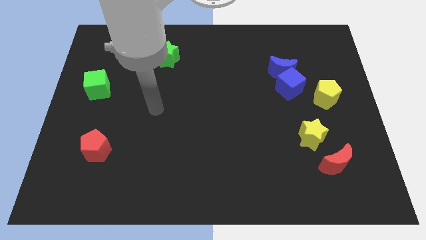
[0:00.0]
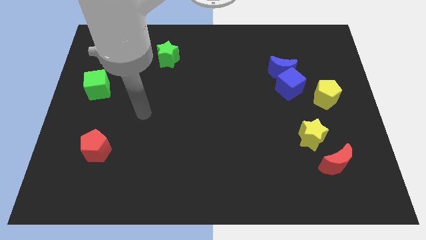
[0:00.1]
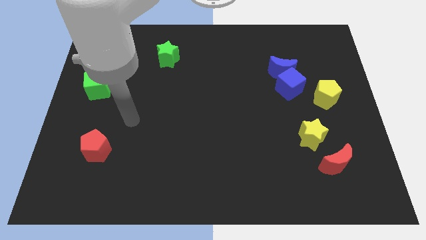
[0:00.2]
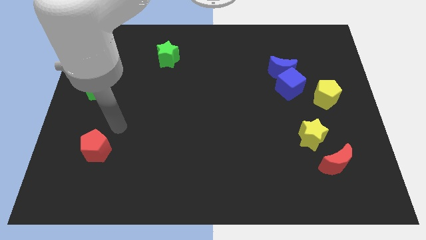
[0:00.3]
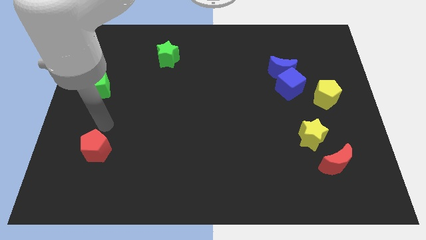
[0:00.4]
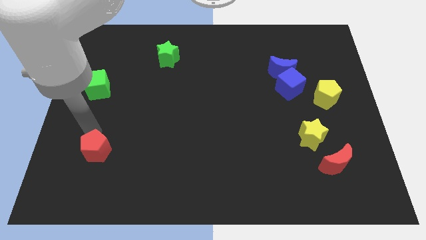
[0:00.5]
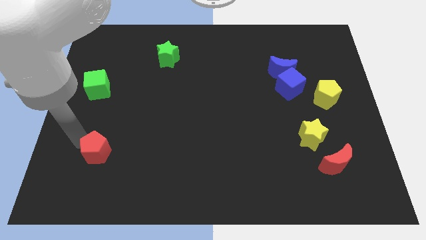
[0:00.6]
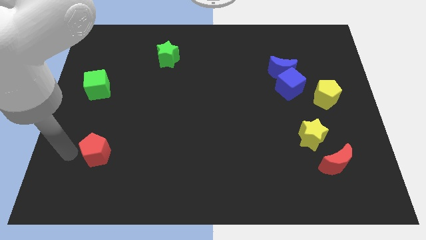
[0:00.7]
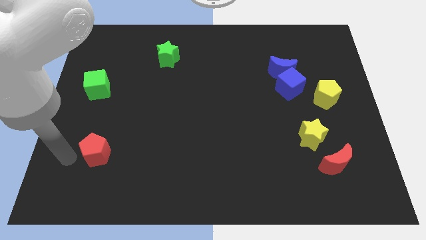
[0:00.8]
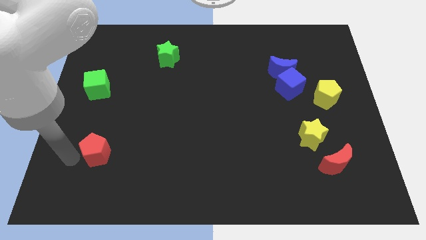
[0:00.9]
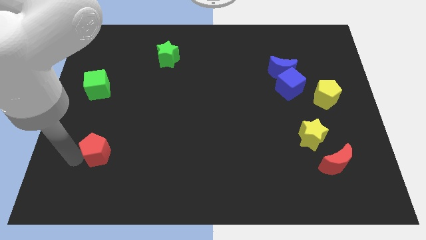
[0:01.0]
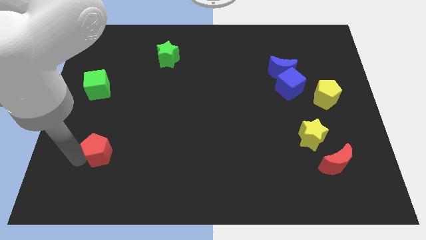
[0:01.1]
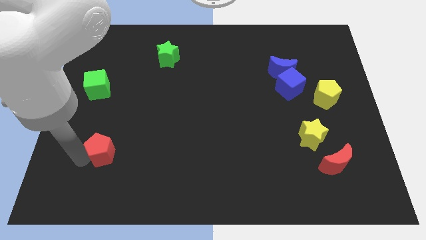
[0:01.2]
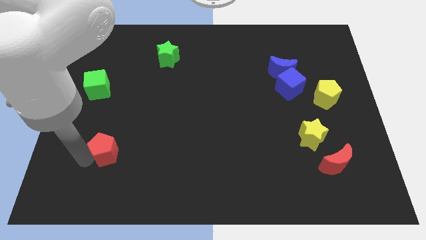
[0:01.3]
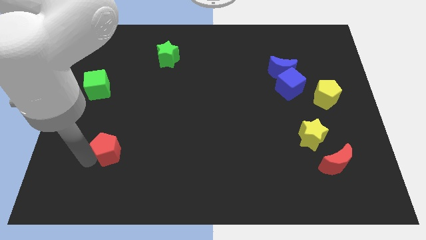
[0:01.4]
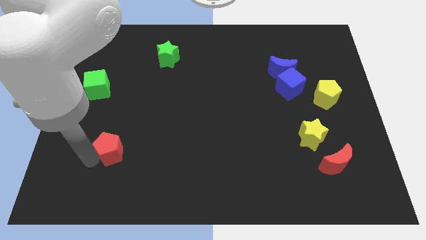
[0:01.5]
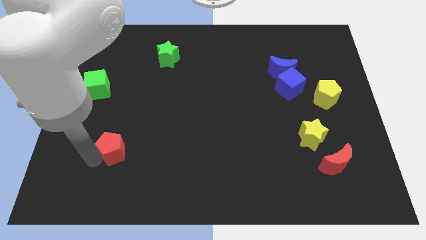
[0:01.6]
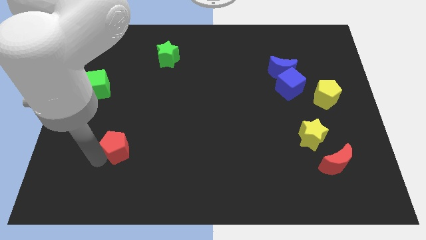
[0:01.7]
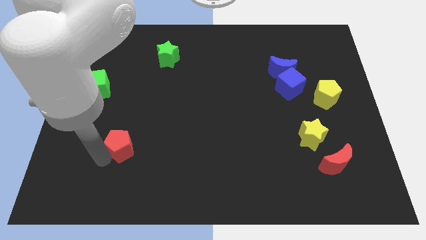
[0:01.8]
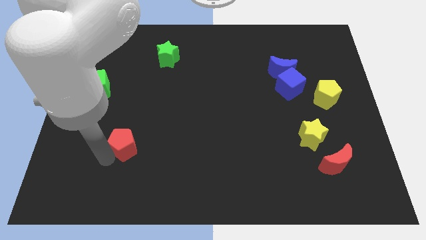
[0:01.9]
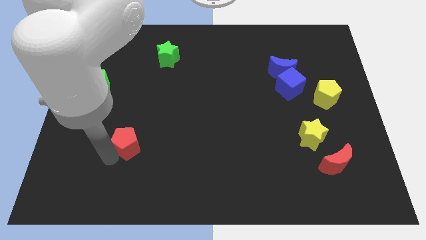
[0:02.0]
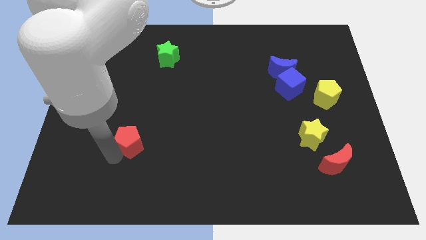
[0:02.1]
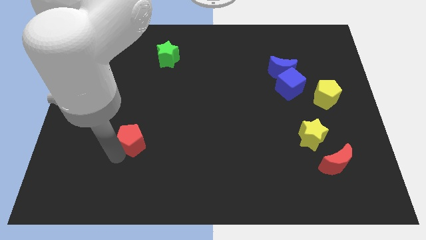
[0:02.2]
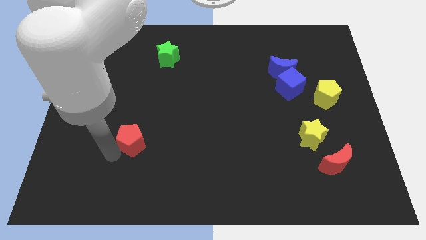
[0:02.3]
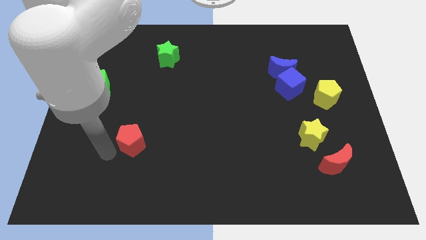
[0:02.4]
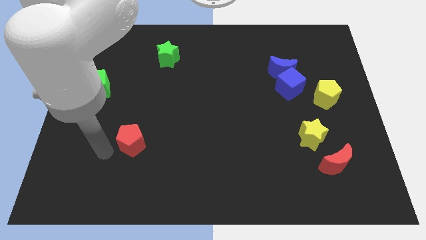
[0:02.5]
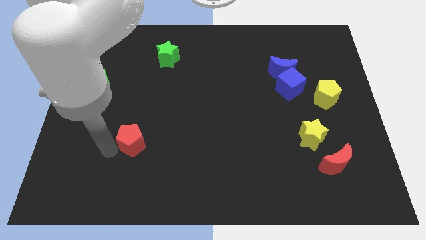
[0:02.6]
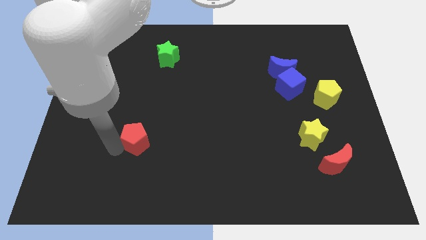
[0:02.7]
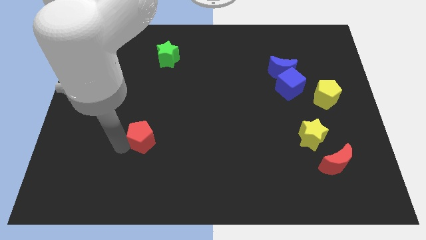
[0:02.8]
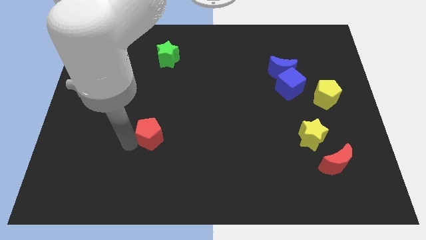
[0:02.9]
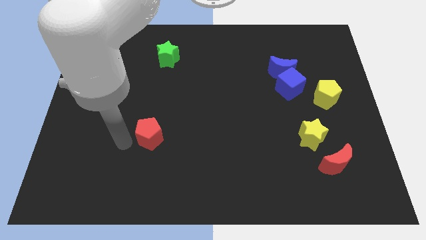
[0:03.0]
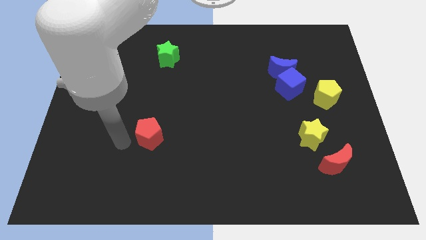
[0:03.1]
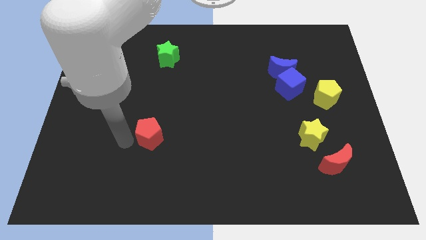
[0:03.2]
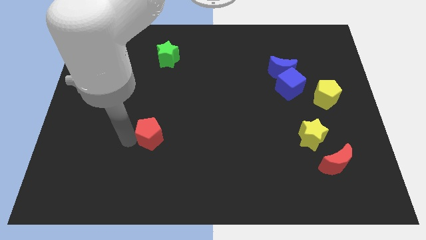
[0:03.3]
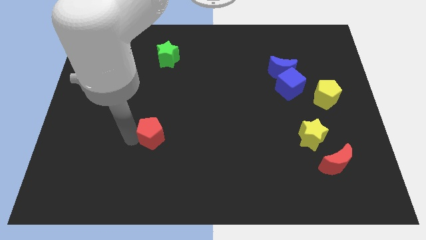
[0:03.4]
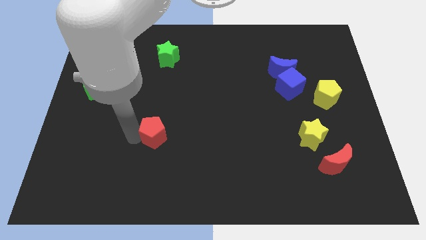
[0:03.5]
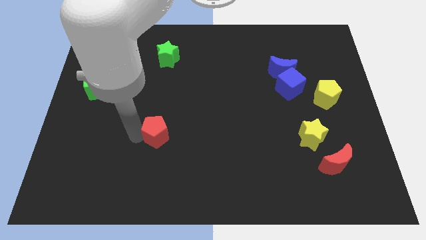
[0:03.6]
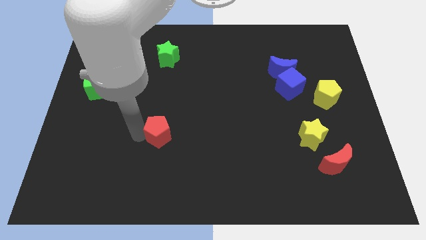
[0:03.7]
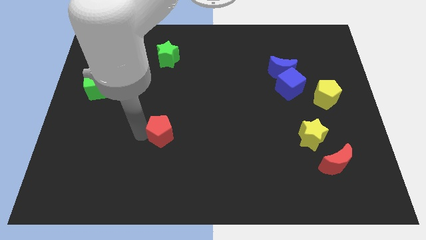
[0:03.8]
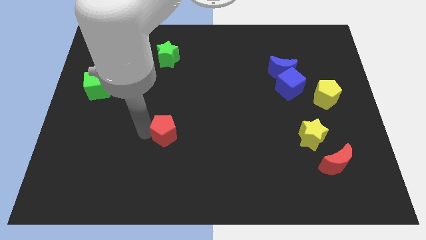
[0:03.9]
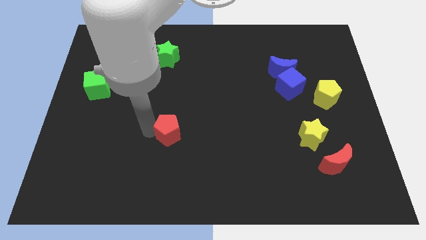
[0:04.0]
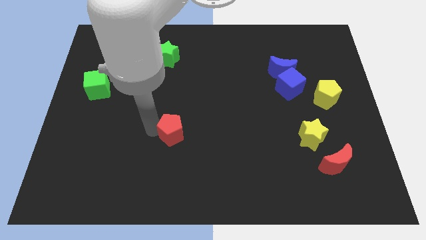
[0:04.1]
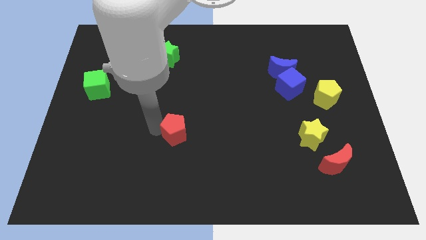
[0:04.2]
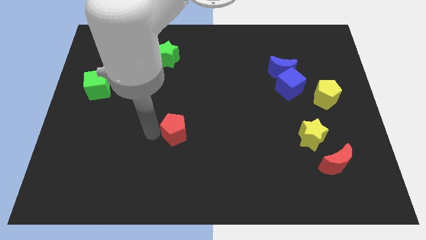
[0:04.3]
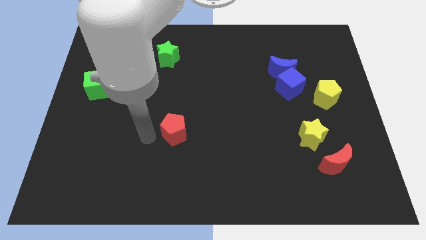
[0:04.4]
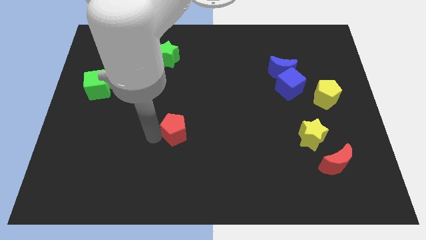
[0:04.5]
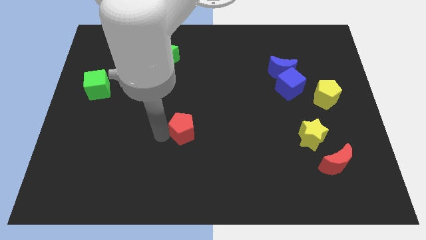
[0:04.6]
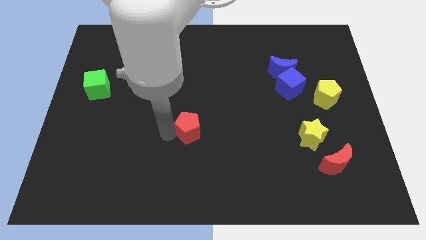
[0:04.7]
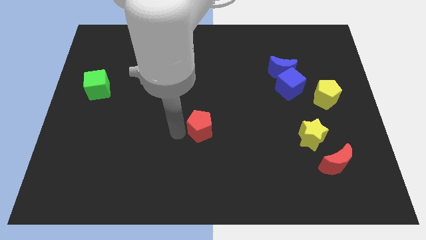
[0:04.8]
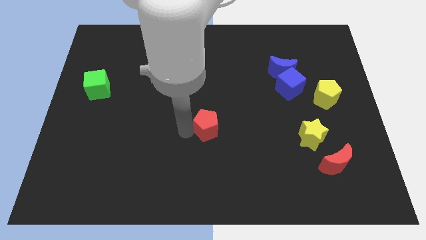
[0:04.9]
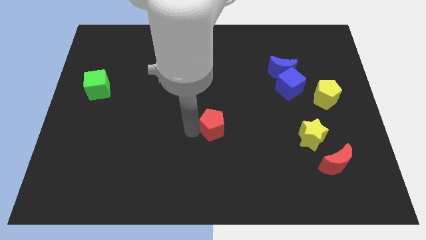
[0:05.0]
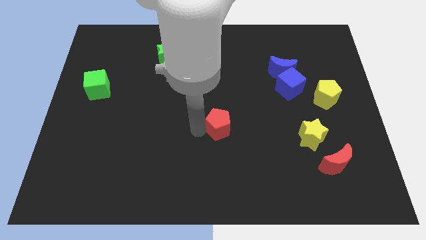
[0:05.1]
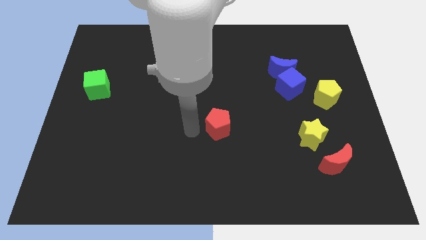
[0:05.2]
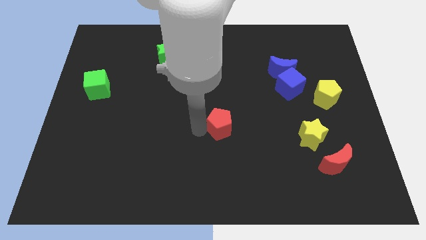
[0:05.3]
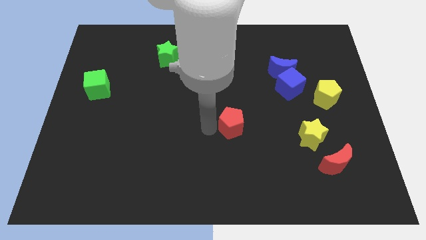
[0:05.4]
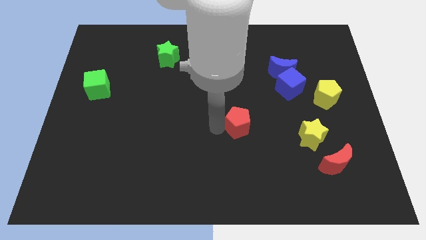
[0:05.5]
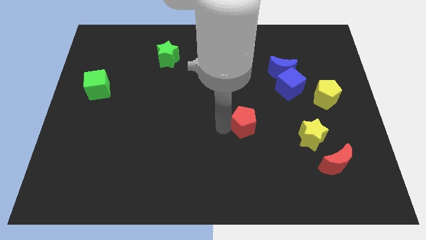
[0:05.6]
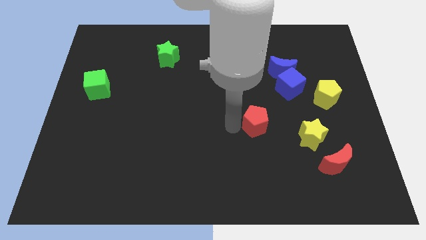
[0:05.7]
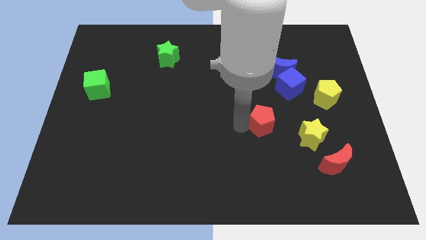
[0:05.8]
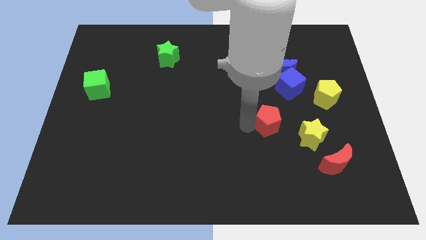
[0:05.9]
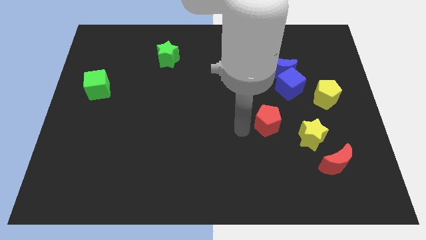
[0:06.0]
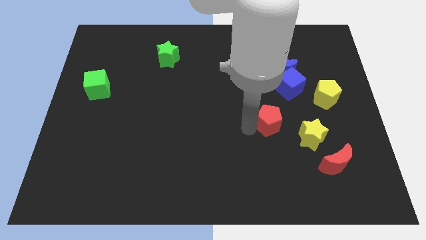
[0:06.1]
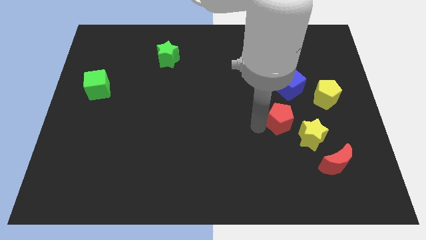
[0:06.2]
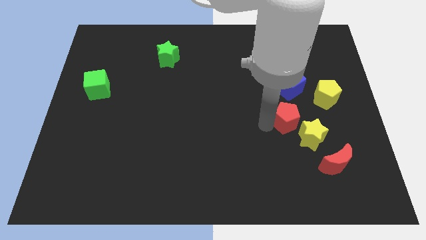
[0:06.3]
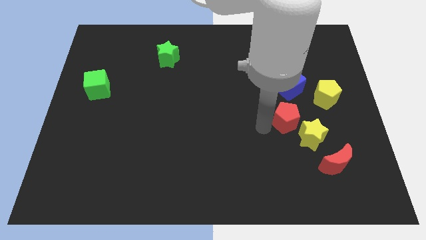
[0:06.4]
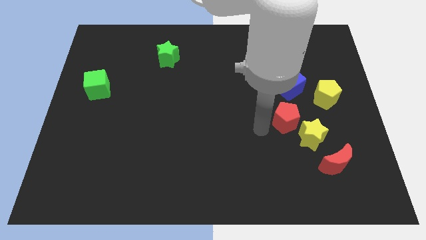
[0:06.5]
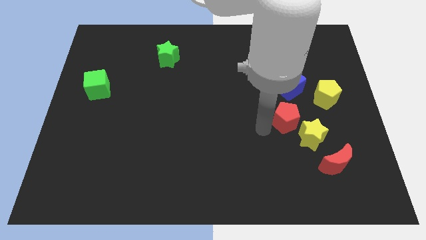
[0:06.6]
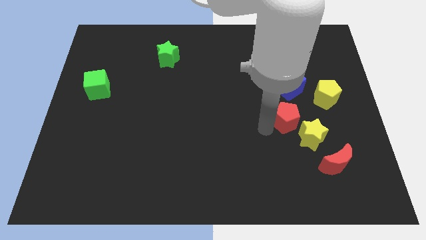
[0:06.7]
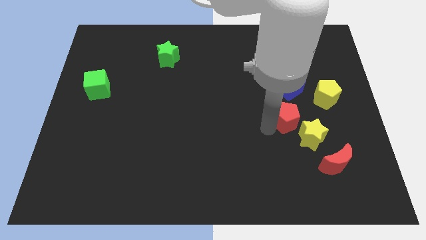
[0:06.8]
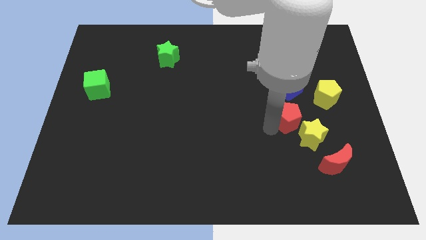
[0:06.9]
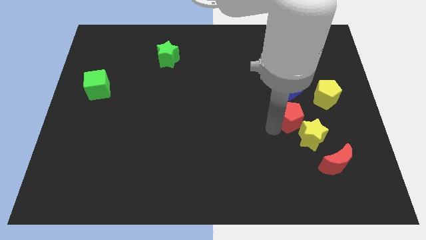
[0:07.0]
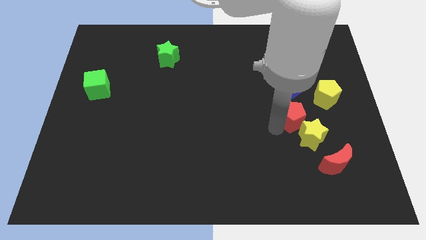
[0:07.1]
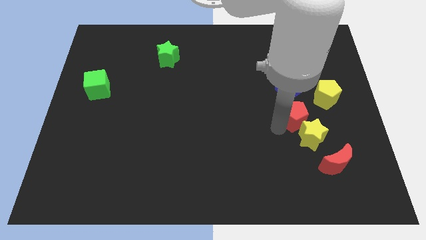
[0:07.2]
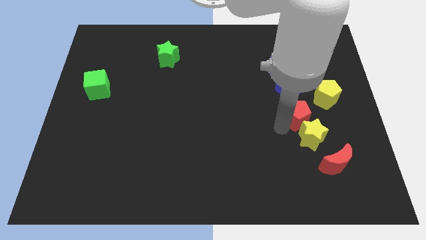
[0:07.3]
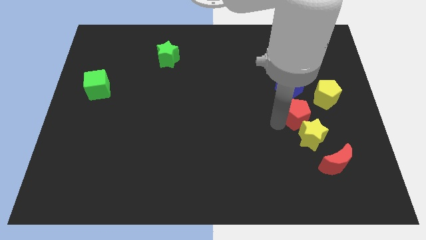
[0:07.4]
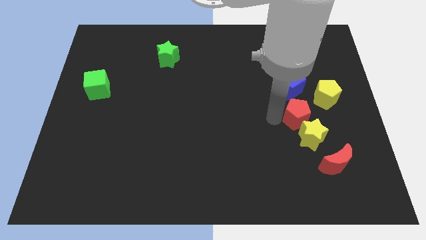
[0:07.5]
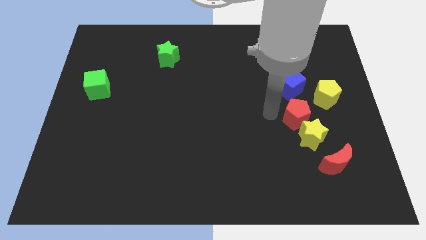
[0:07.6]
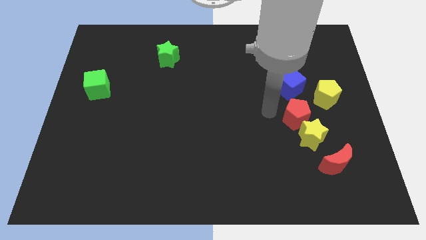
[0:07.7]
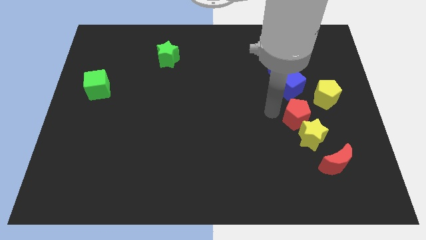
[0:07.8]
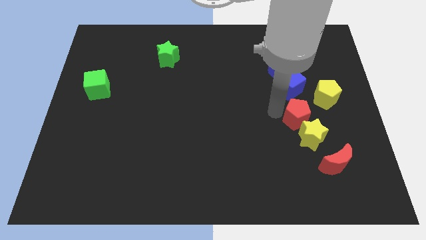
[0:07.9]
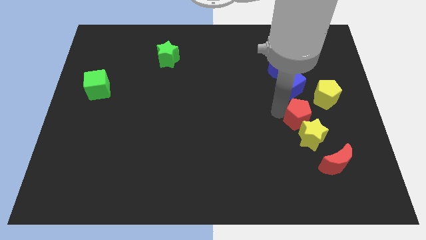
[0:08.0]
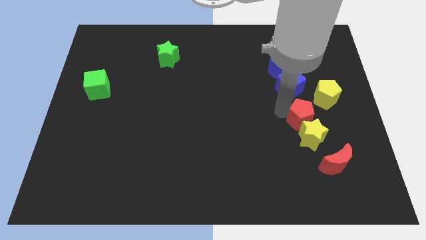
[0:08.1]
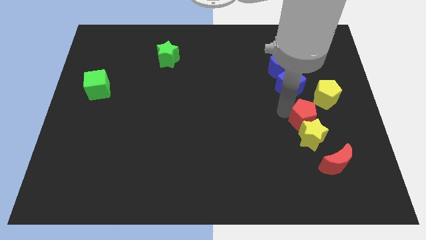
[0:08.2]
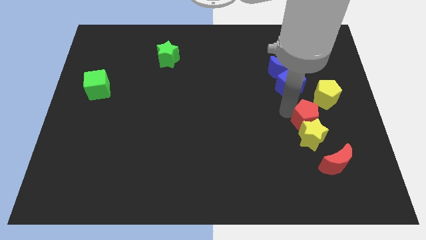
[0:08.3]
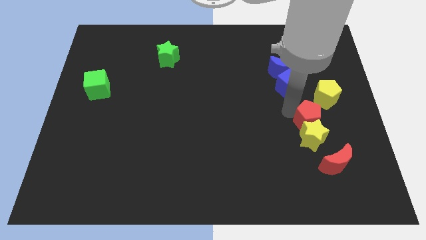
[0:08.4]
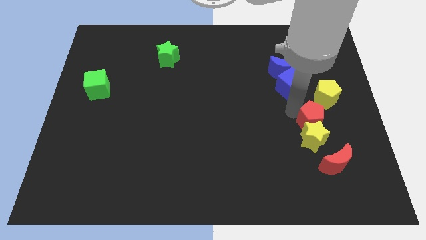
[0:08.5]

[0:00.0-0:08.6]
push the red pentagon below the yellow pentagon
